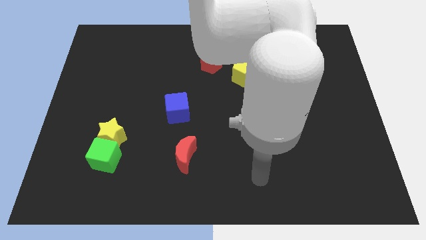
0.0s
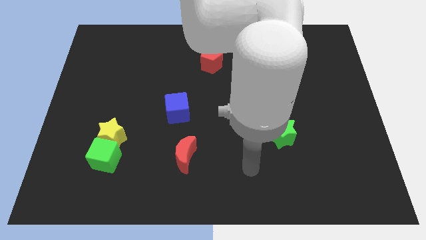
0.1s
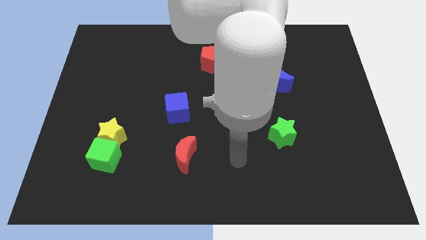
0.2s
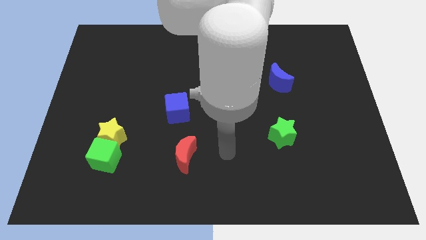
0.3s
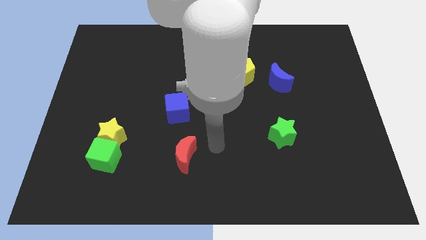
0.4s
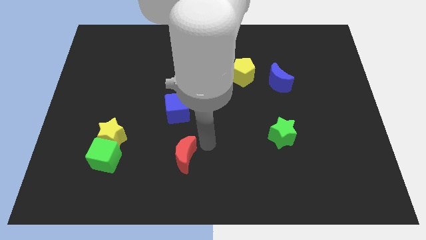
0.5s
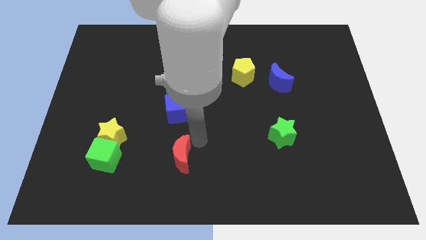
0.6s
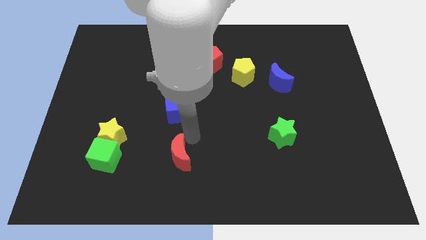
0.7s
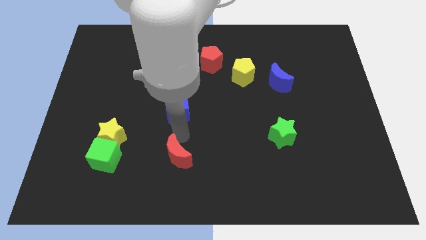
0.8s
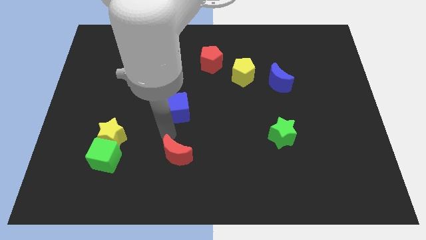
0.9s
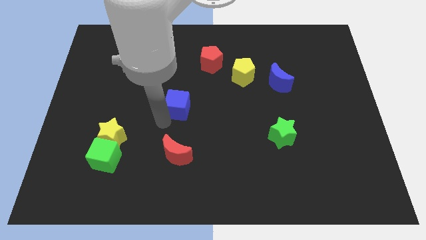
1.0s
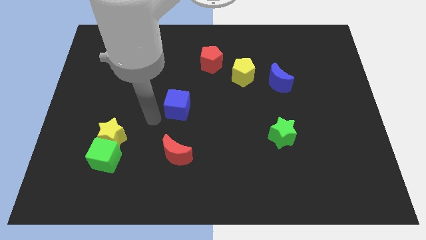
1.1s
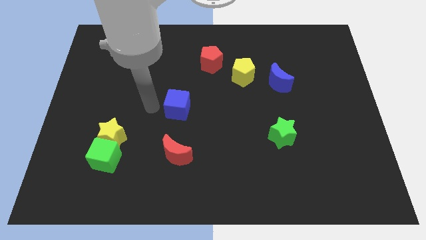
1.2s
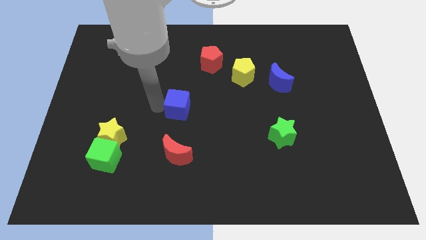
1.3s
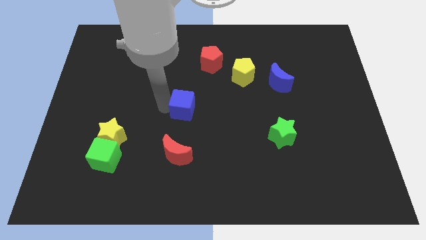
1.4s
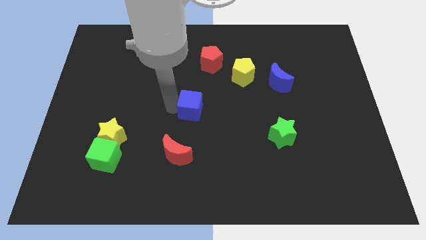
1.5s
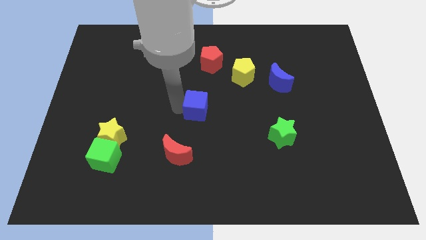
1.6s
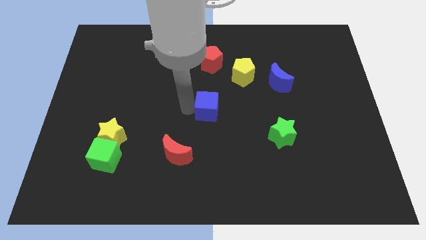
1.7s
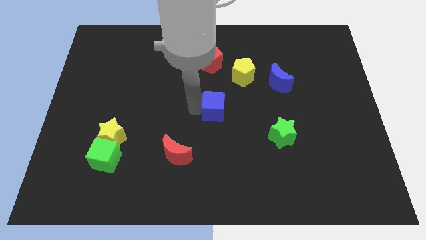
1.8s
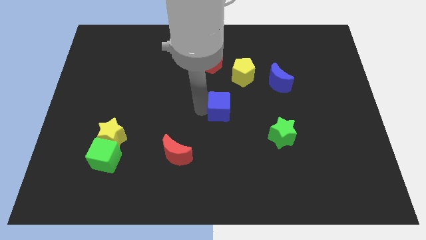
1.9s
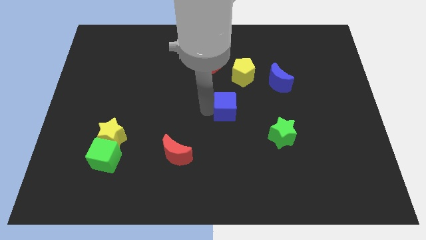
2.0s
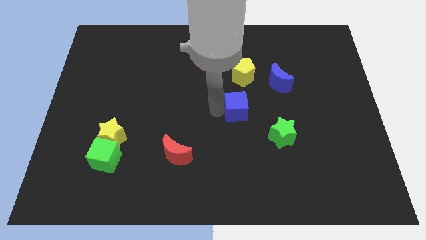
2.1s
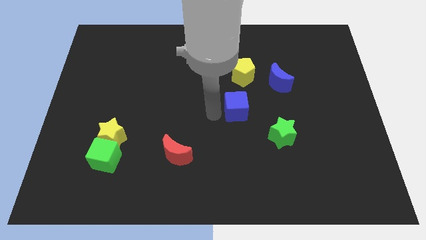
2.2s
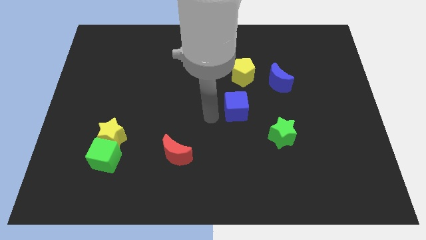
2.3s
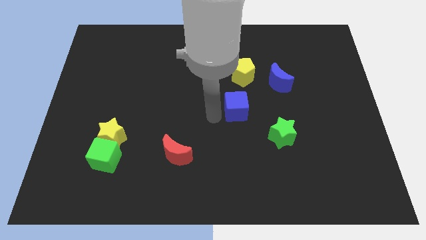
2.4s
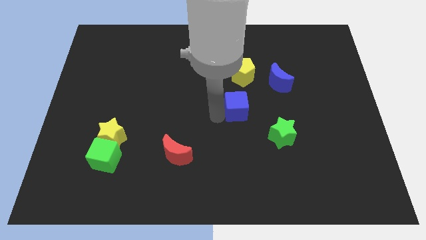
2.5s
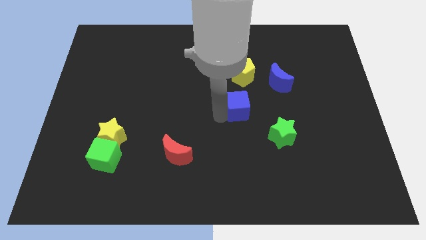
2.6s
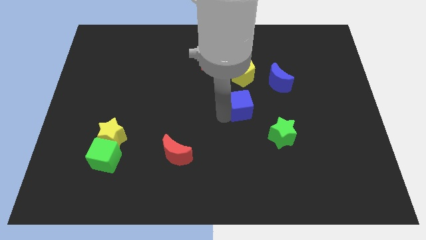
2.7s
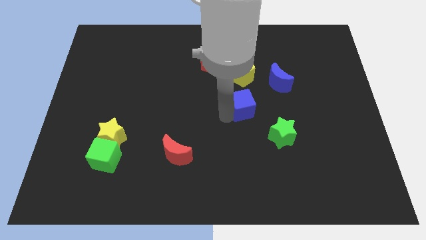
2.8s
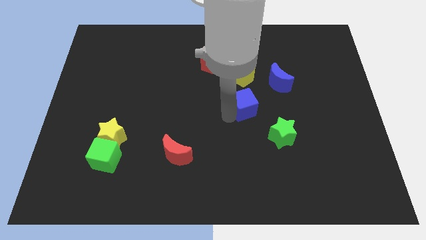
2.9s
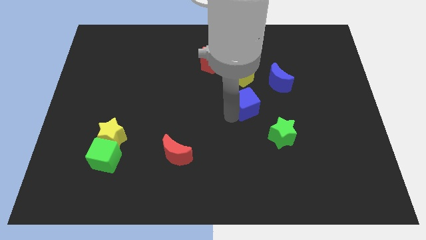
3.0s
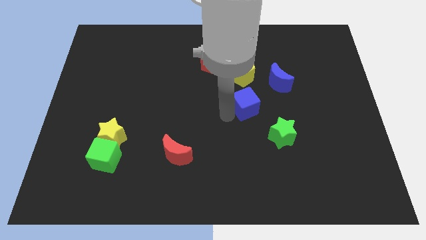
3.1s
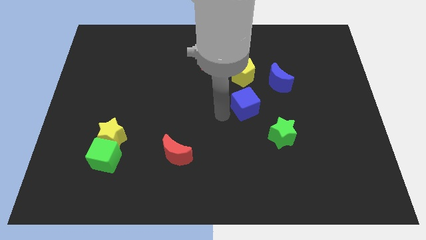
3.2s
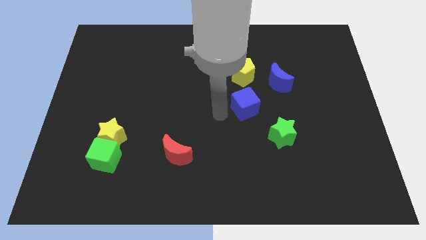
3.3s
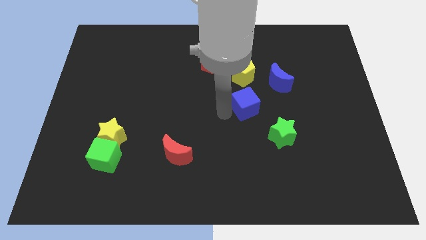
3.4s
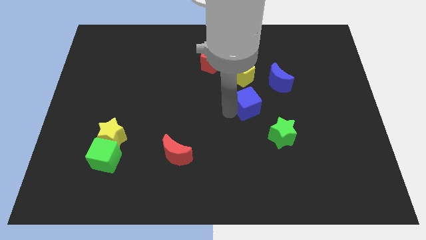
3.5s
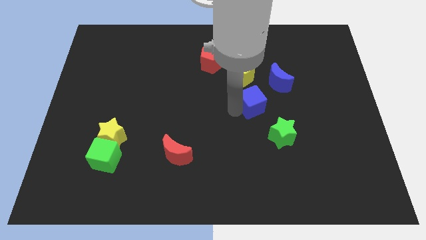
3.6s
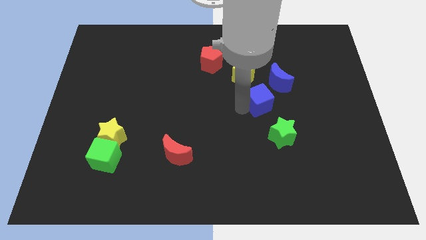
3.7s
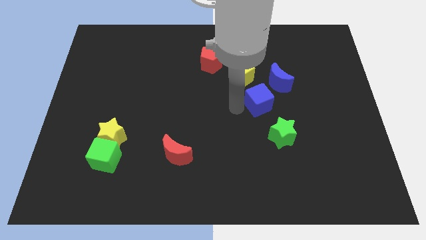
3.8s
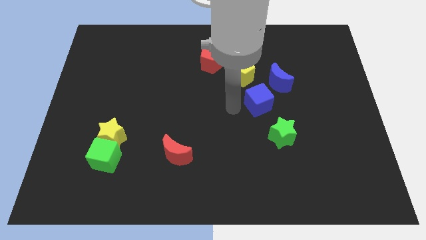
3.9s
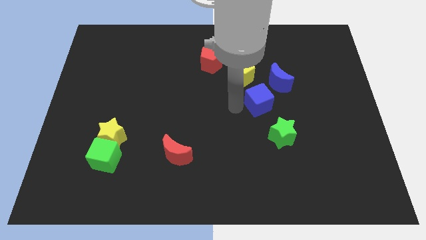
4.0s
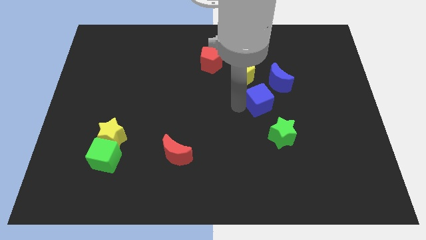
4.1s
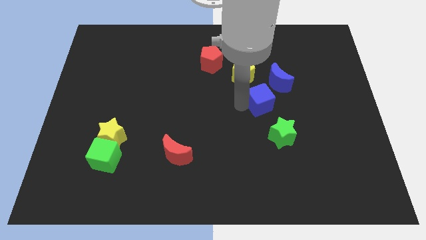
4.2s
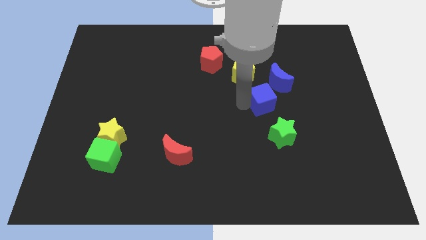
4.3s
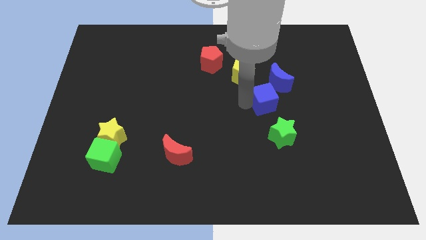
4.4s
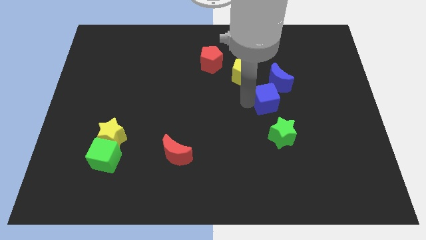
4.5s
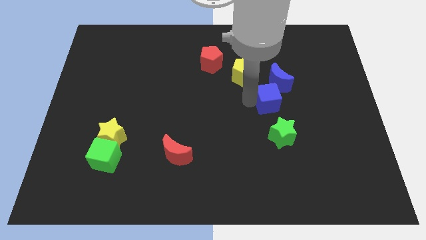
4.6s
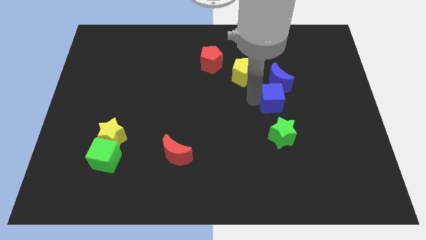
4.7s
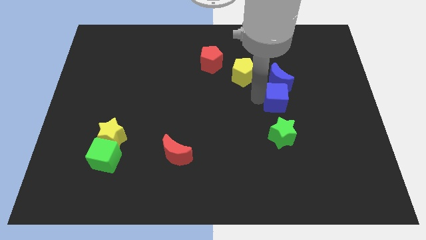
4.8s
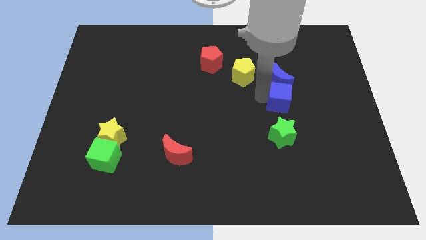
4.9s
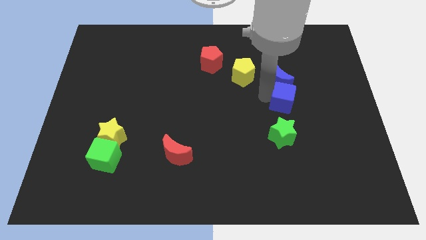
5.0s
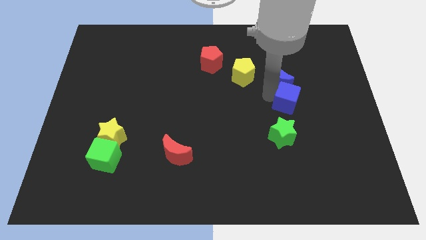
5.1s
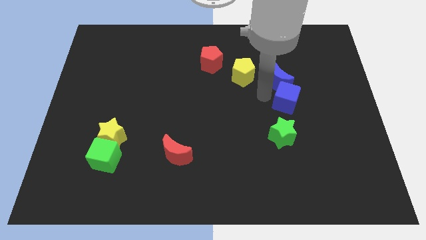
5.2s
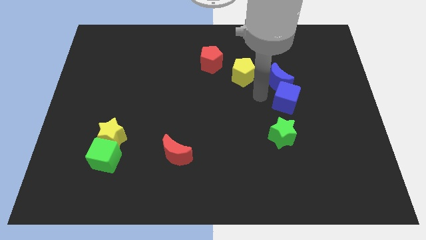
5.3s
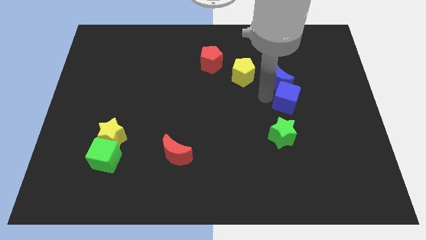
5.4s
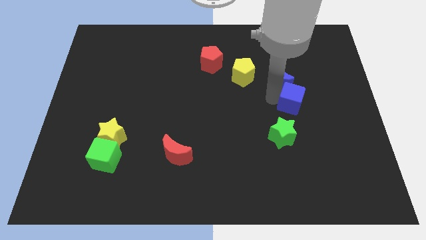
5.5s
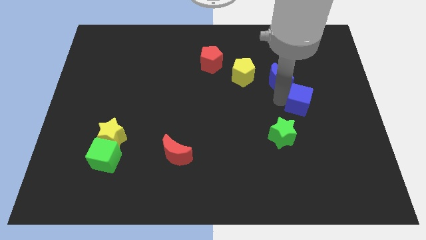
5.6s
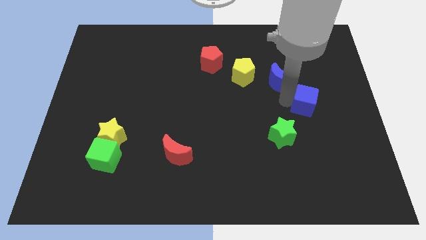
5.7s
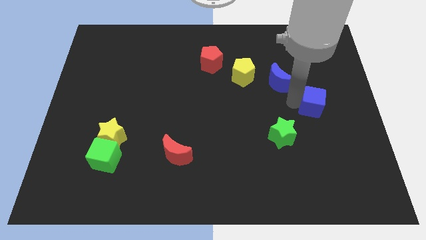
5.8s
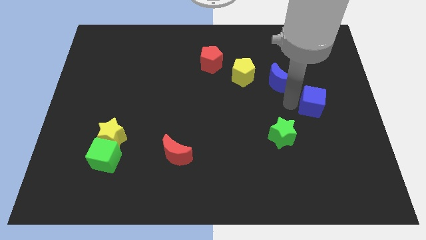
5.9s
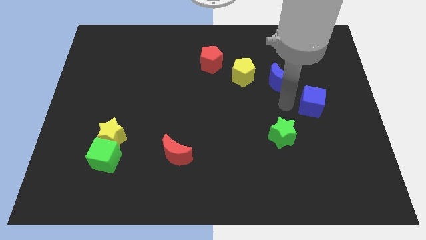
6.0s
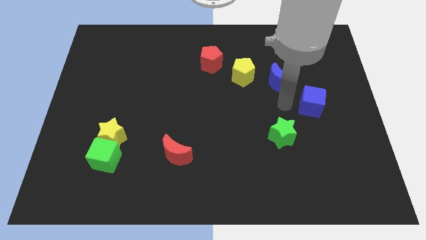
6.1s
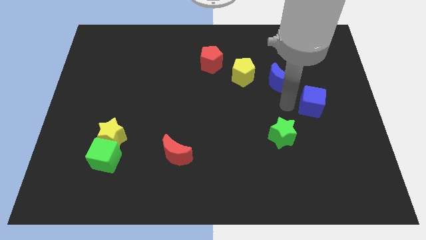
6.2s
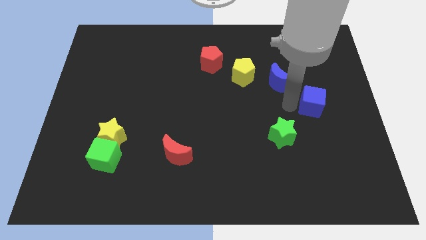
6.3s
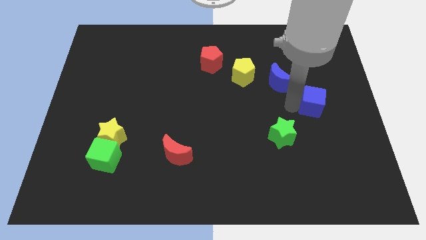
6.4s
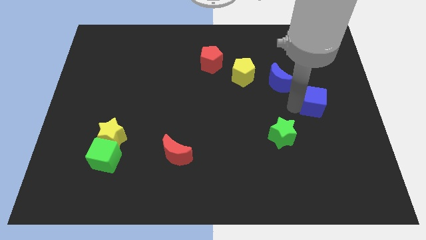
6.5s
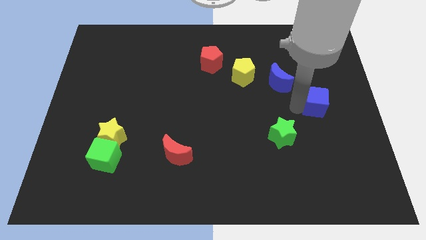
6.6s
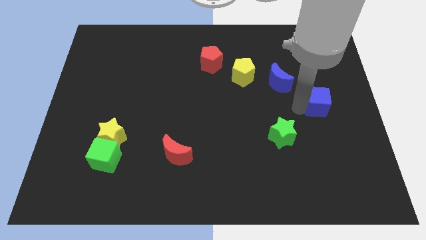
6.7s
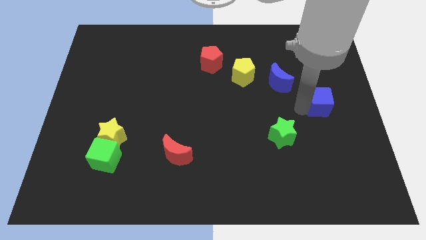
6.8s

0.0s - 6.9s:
move the blue cube to the right side of the board
